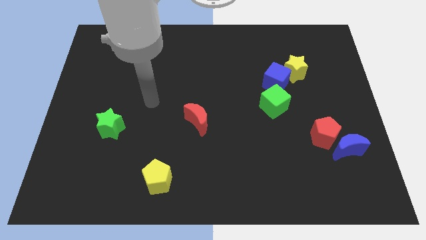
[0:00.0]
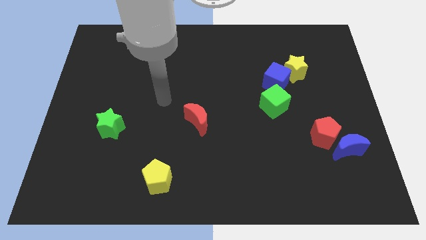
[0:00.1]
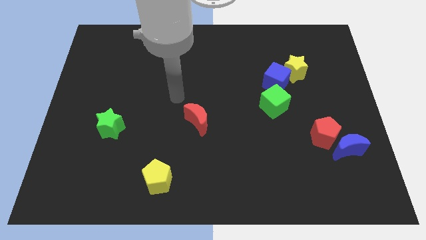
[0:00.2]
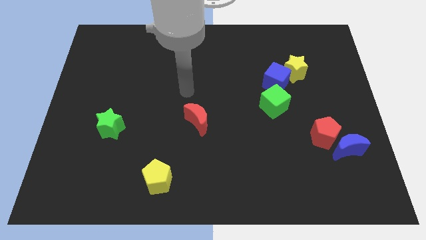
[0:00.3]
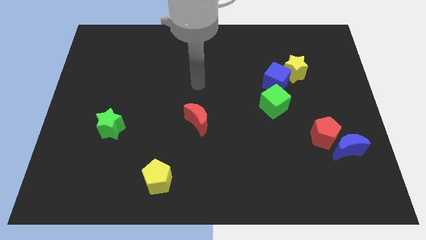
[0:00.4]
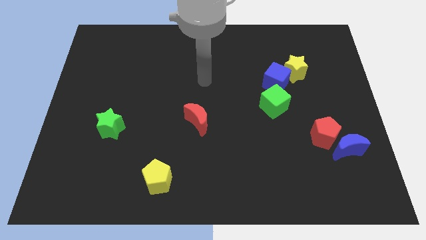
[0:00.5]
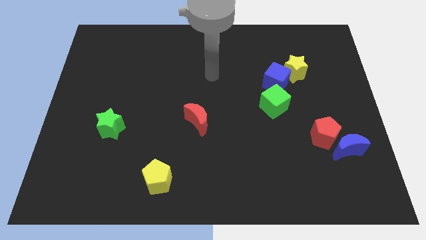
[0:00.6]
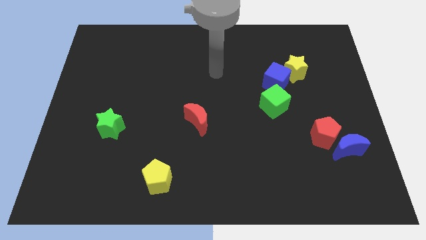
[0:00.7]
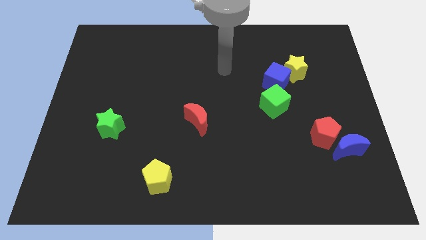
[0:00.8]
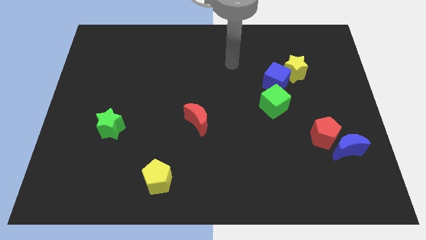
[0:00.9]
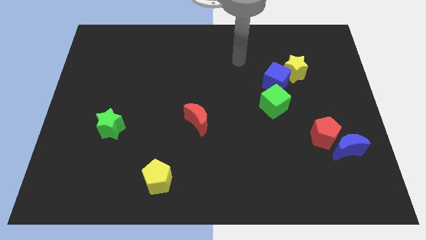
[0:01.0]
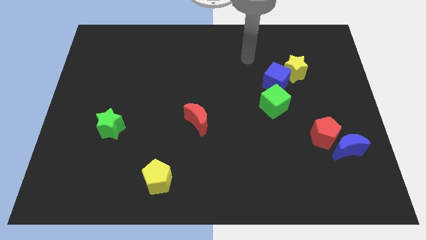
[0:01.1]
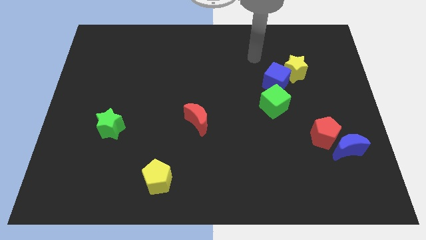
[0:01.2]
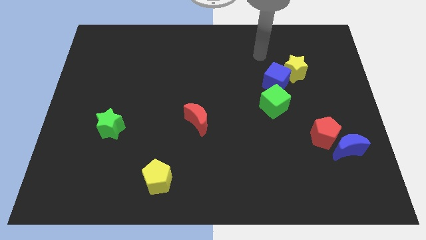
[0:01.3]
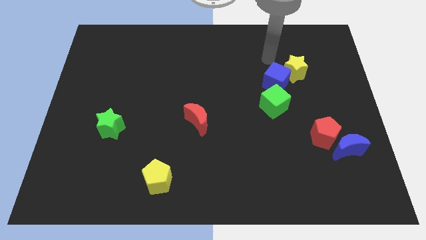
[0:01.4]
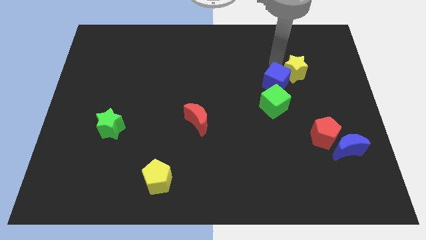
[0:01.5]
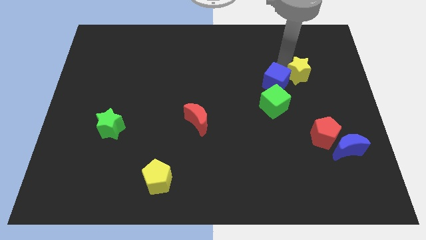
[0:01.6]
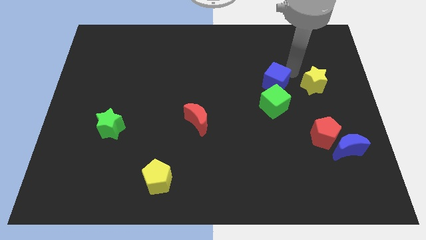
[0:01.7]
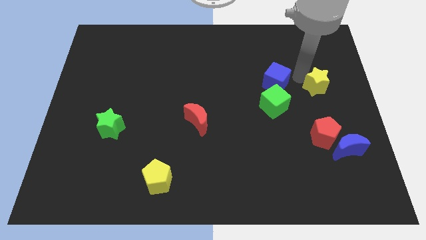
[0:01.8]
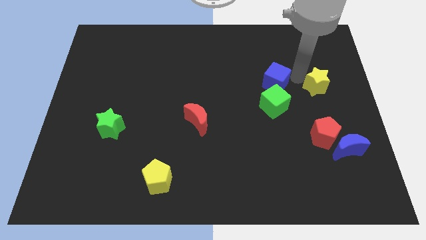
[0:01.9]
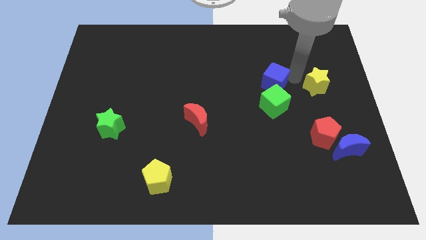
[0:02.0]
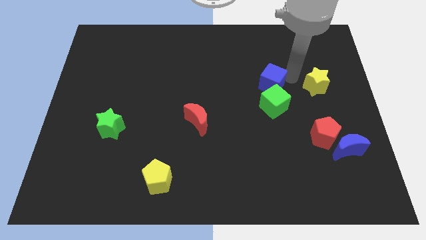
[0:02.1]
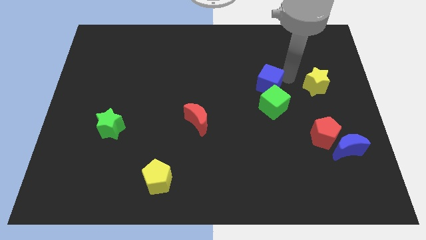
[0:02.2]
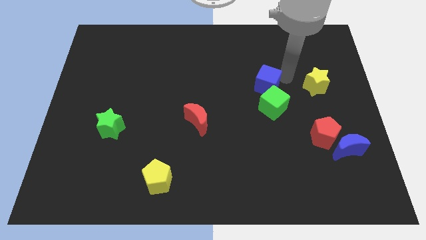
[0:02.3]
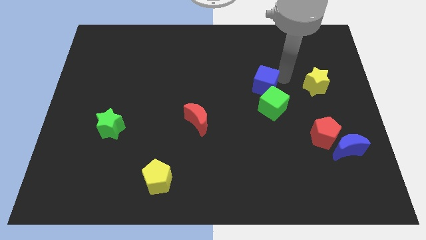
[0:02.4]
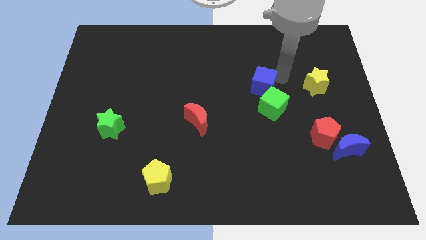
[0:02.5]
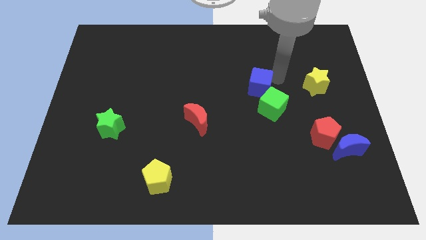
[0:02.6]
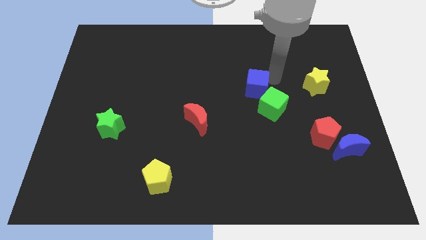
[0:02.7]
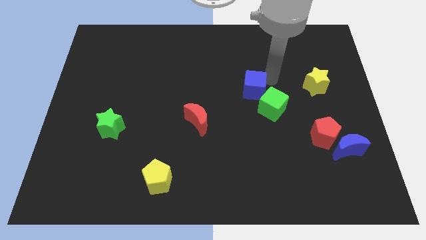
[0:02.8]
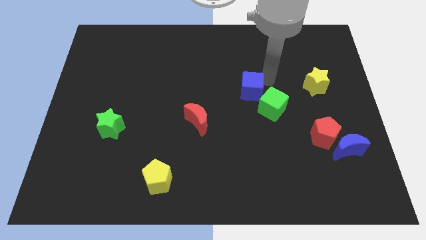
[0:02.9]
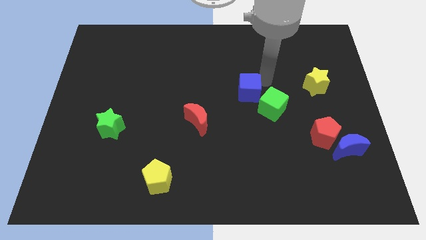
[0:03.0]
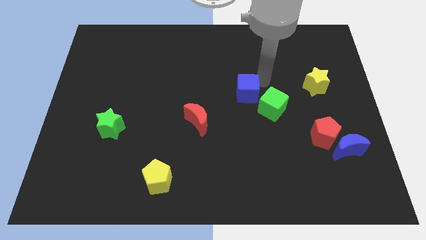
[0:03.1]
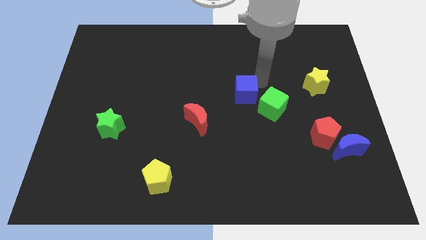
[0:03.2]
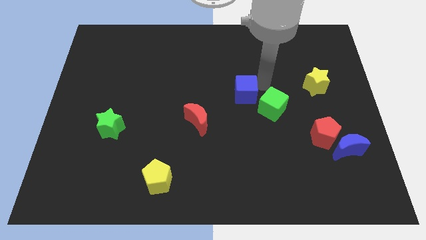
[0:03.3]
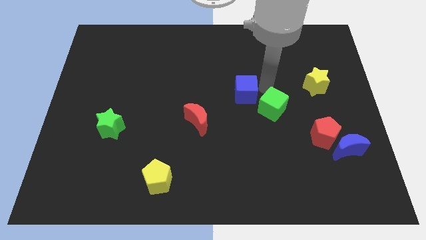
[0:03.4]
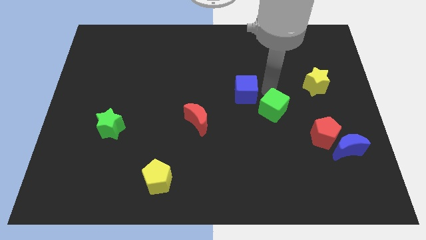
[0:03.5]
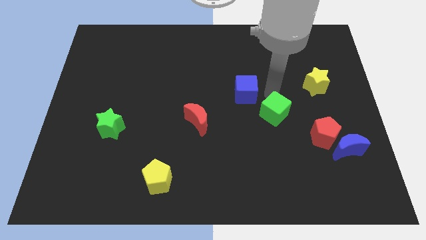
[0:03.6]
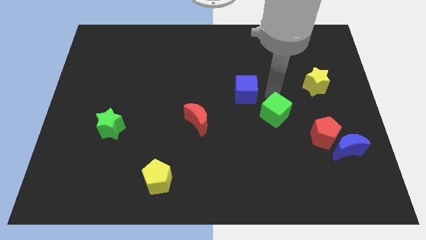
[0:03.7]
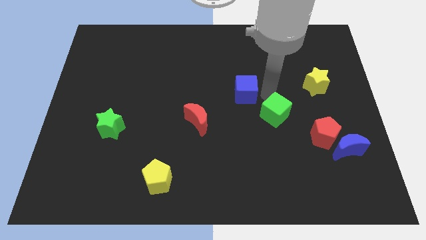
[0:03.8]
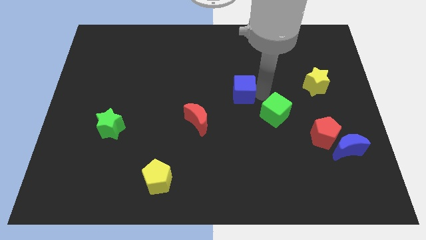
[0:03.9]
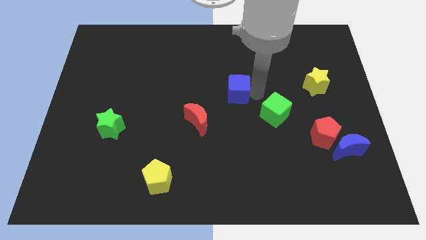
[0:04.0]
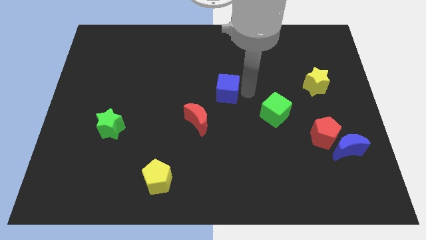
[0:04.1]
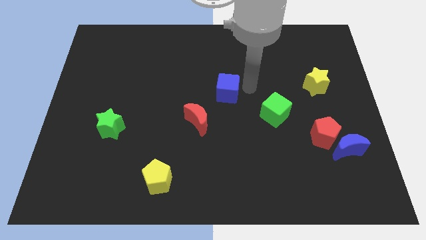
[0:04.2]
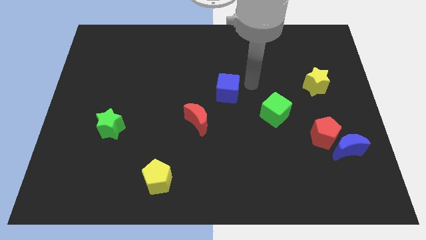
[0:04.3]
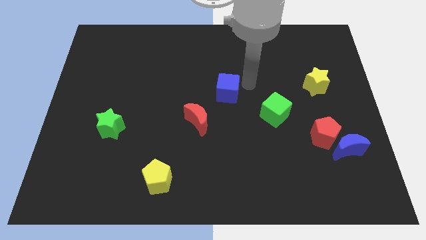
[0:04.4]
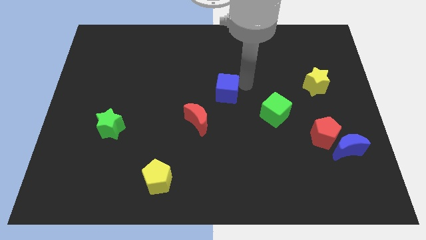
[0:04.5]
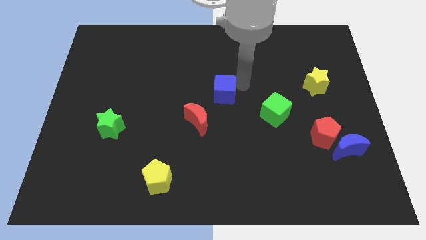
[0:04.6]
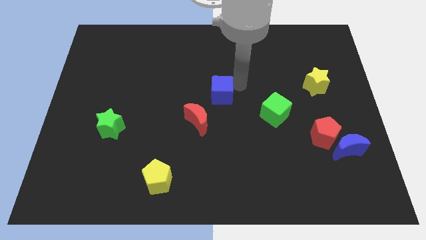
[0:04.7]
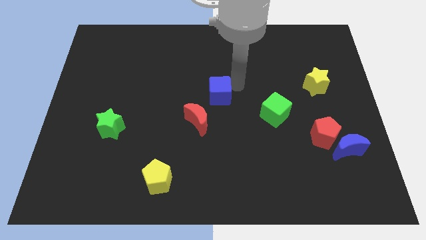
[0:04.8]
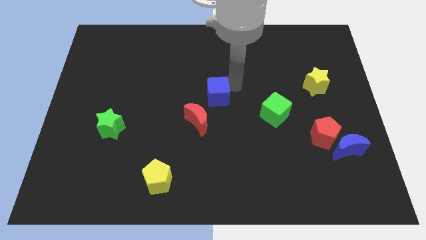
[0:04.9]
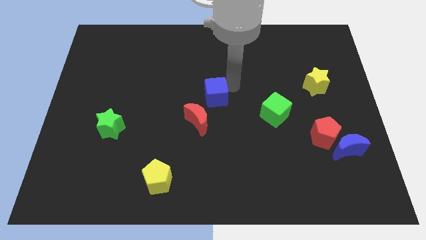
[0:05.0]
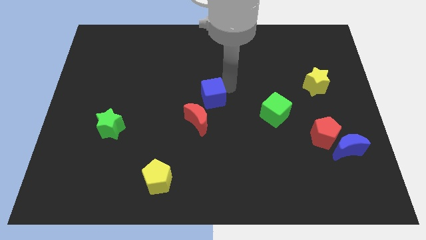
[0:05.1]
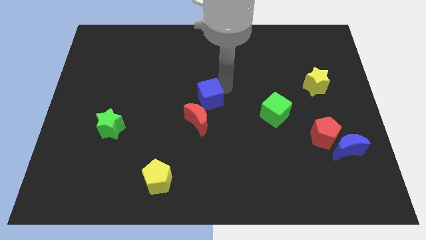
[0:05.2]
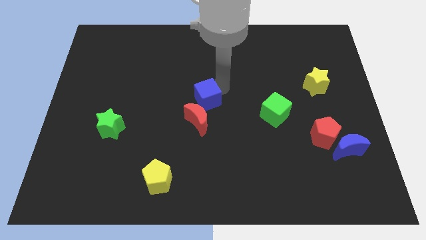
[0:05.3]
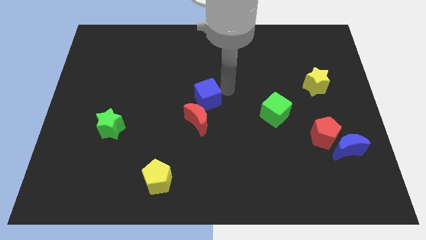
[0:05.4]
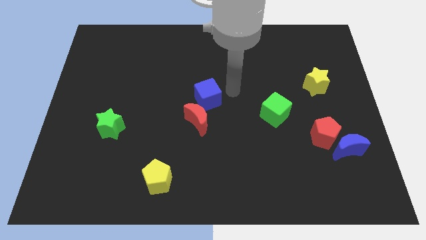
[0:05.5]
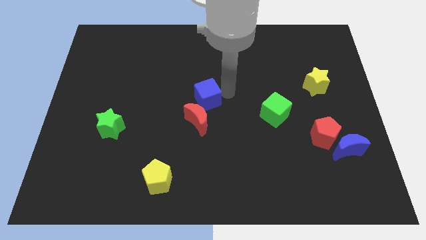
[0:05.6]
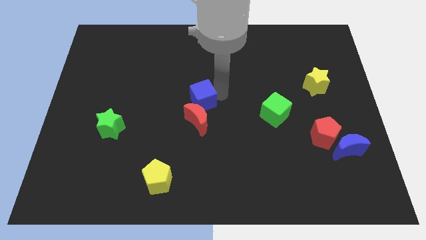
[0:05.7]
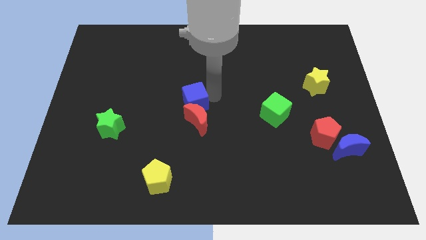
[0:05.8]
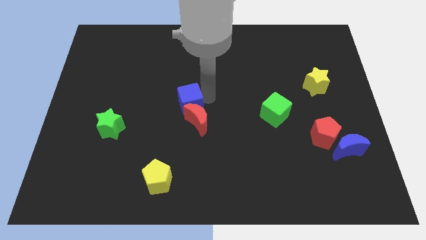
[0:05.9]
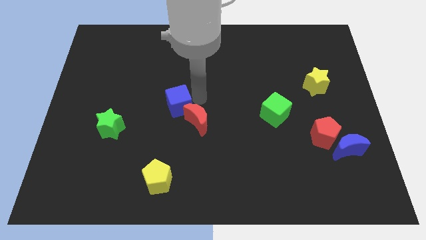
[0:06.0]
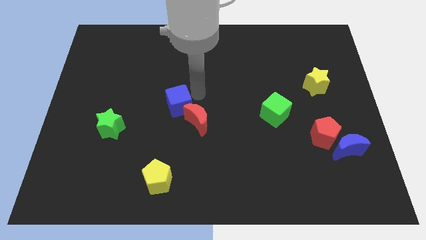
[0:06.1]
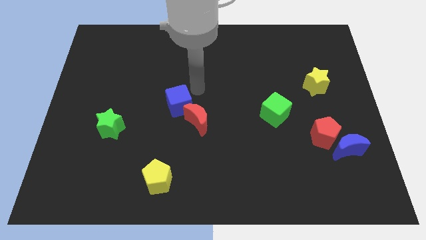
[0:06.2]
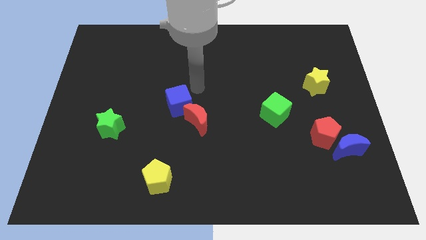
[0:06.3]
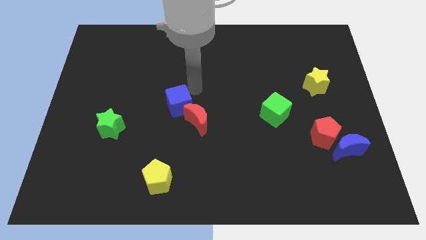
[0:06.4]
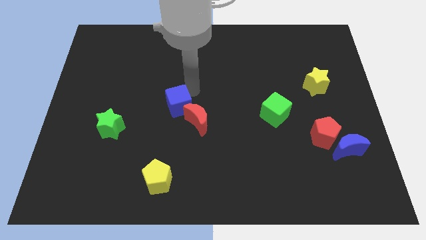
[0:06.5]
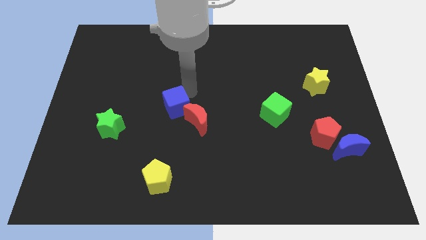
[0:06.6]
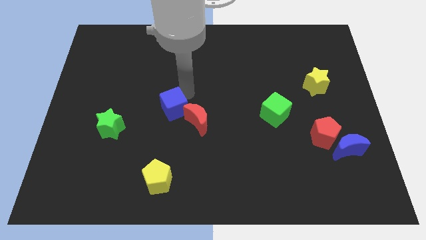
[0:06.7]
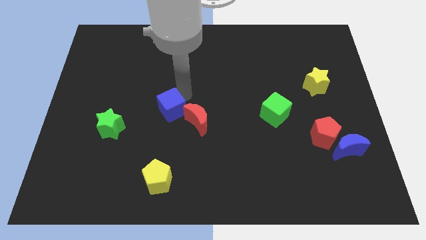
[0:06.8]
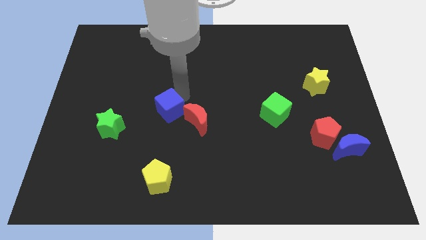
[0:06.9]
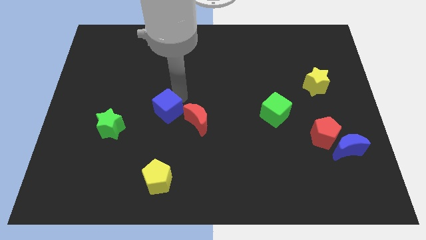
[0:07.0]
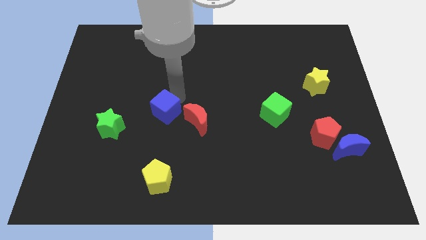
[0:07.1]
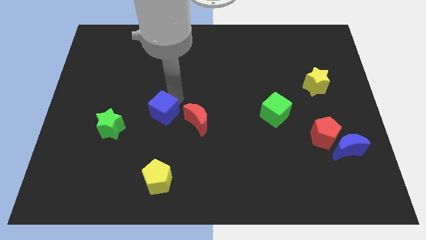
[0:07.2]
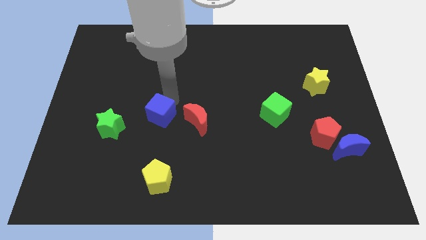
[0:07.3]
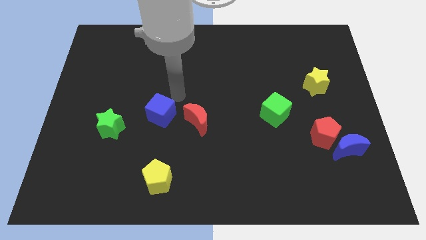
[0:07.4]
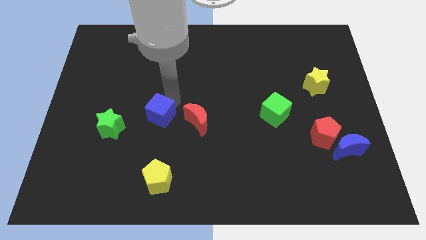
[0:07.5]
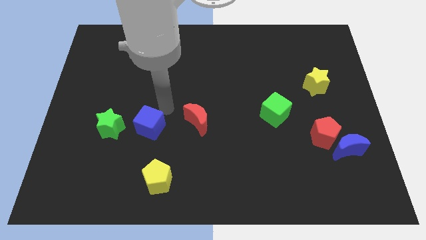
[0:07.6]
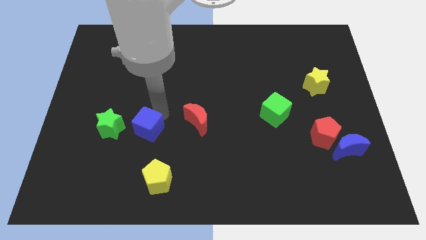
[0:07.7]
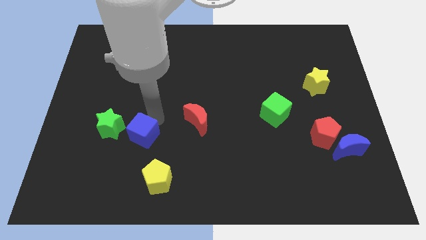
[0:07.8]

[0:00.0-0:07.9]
push the blue cube to the bottom right of the green star
